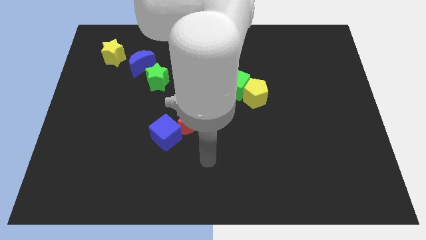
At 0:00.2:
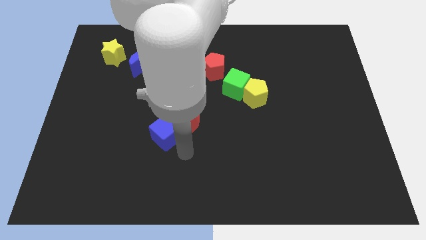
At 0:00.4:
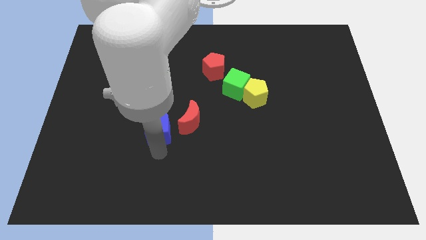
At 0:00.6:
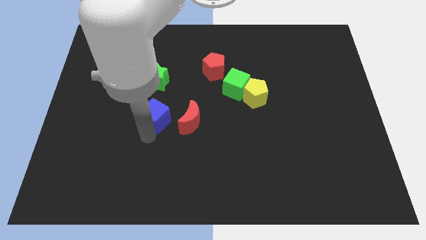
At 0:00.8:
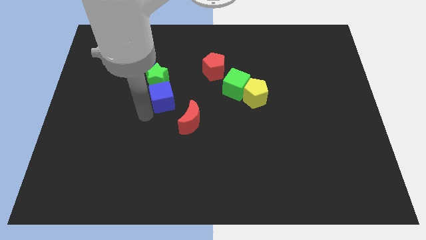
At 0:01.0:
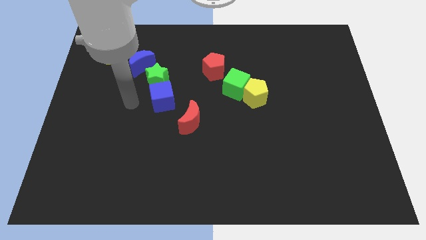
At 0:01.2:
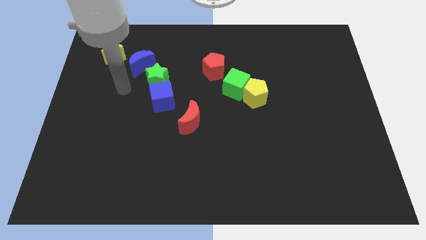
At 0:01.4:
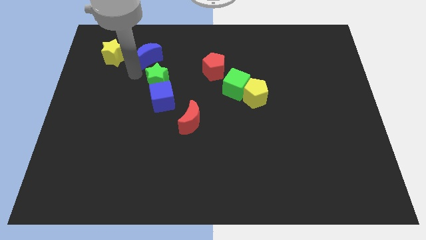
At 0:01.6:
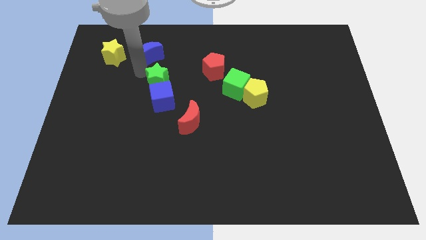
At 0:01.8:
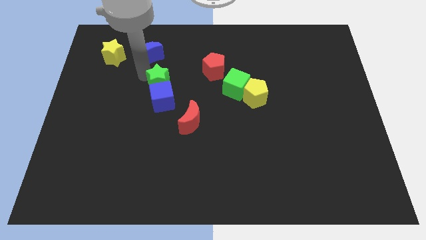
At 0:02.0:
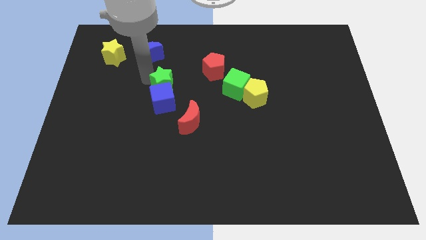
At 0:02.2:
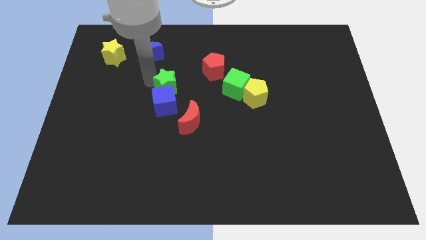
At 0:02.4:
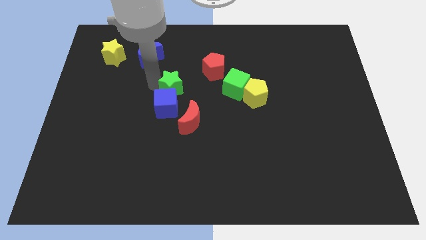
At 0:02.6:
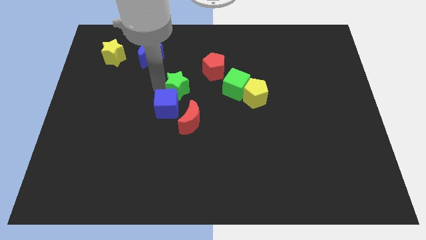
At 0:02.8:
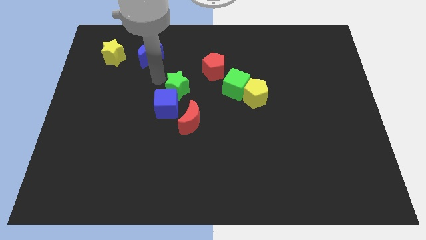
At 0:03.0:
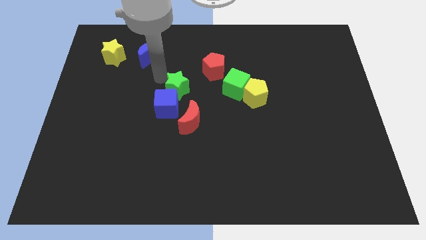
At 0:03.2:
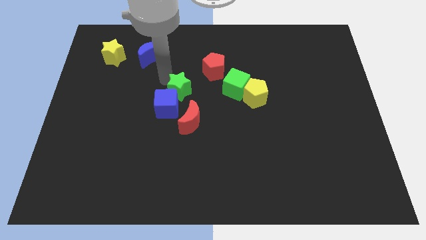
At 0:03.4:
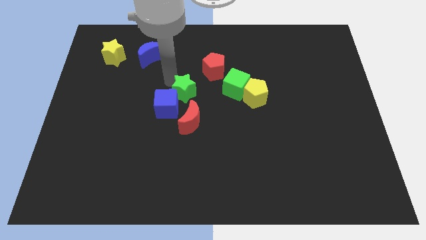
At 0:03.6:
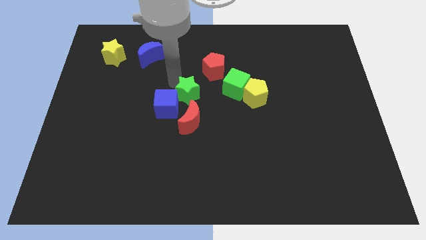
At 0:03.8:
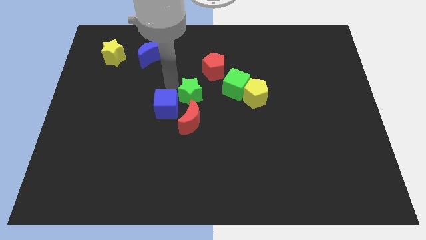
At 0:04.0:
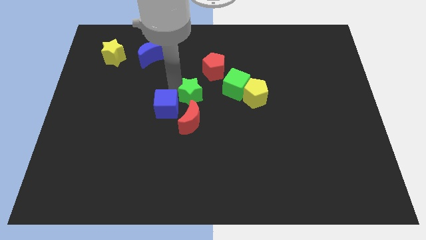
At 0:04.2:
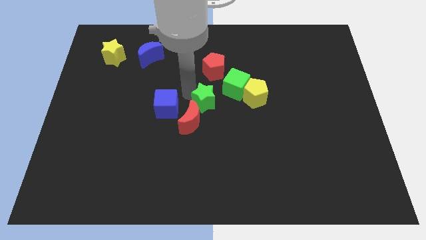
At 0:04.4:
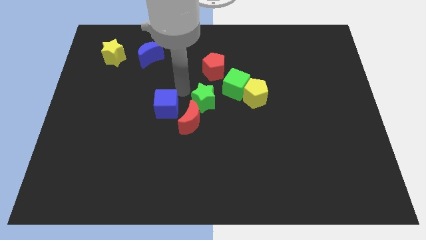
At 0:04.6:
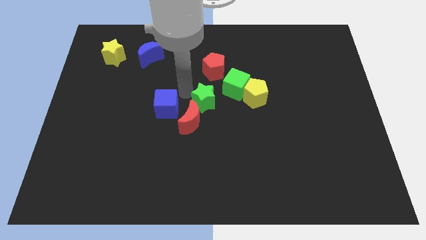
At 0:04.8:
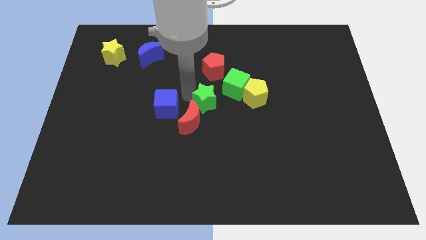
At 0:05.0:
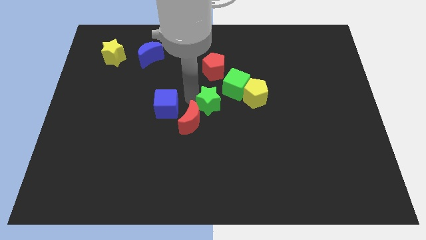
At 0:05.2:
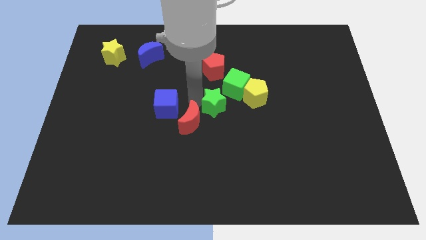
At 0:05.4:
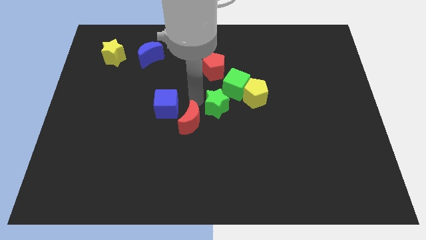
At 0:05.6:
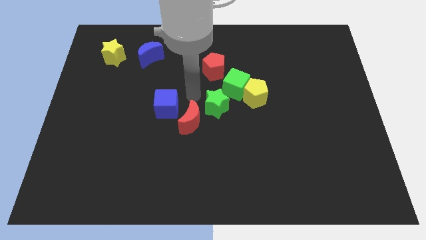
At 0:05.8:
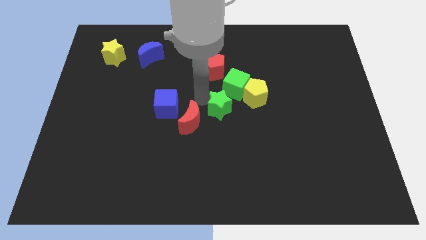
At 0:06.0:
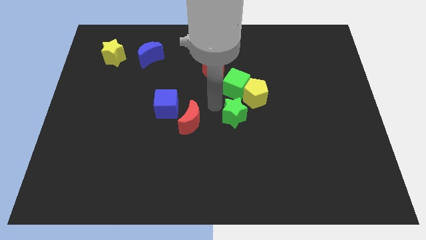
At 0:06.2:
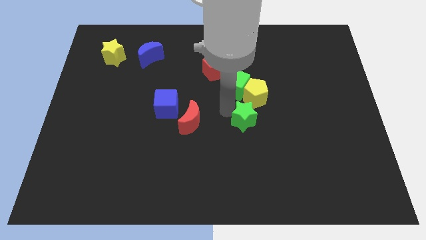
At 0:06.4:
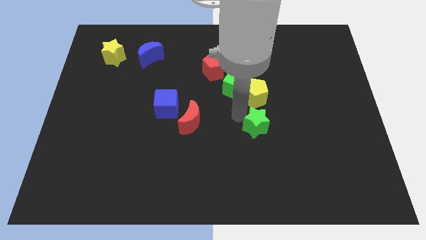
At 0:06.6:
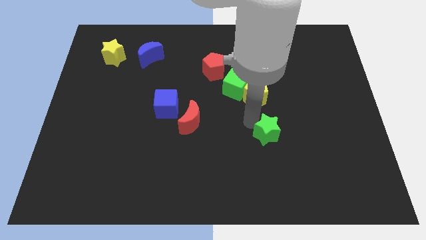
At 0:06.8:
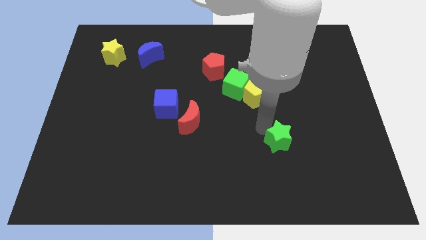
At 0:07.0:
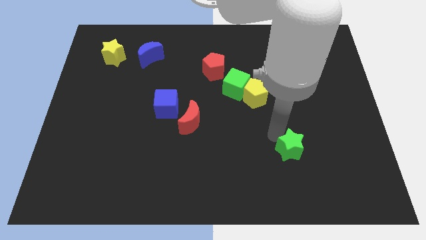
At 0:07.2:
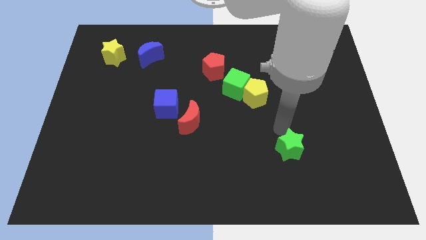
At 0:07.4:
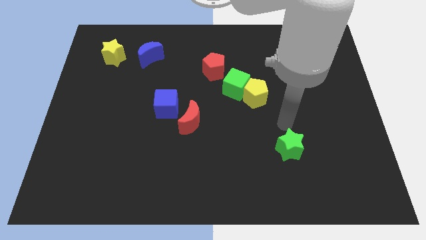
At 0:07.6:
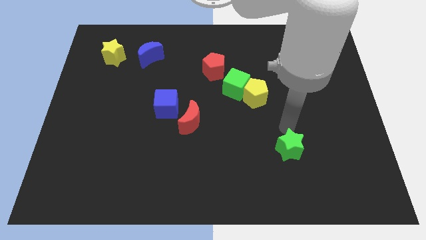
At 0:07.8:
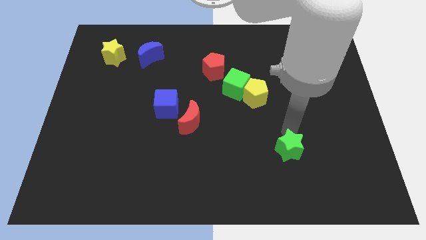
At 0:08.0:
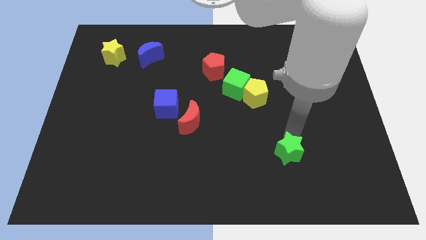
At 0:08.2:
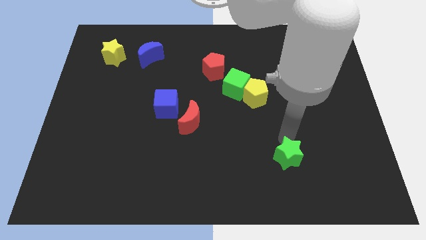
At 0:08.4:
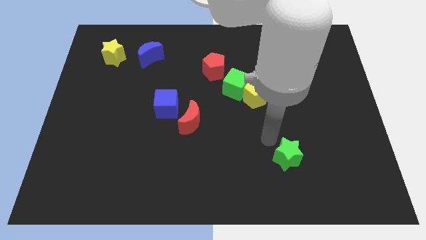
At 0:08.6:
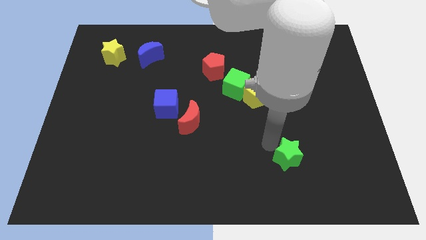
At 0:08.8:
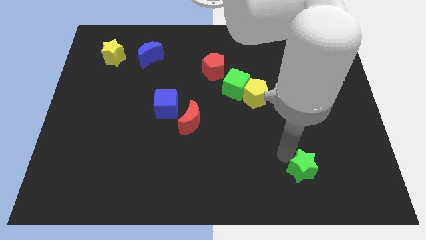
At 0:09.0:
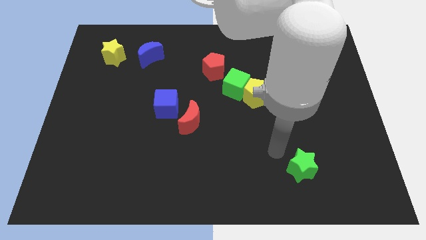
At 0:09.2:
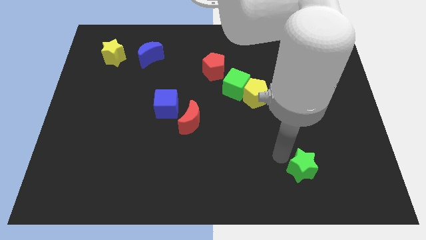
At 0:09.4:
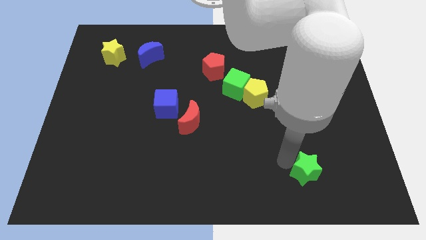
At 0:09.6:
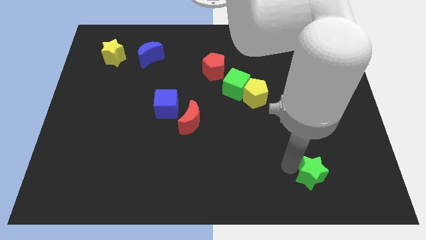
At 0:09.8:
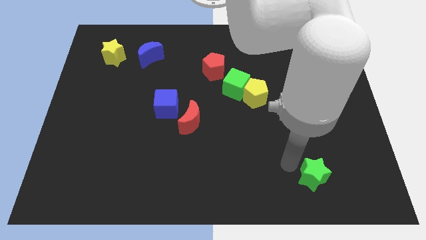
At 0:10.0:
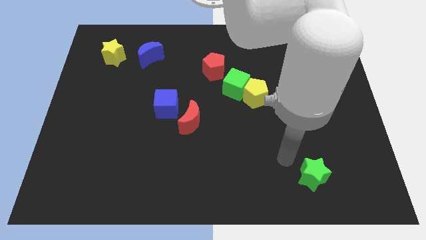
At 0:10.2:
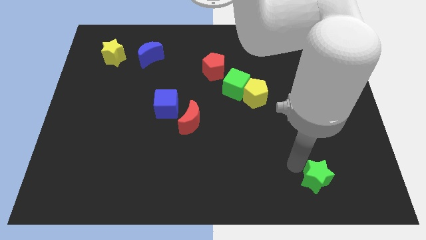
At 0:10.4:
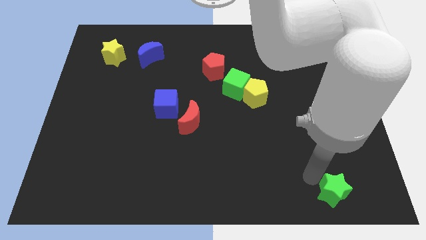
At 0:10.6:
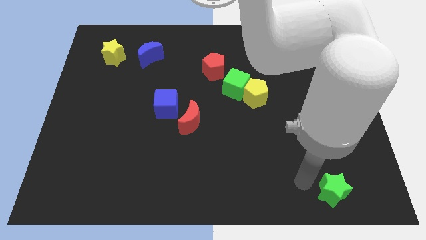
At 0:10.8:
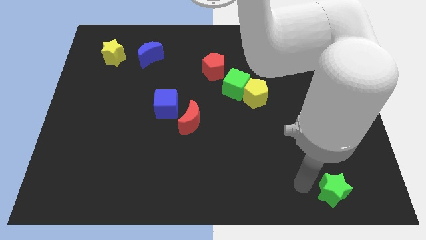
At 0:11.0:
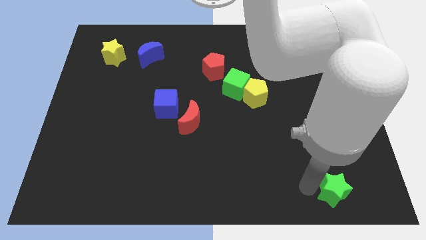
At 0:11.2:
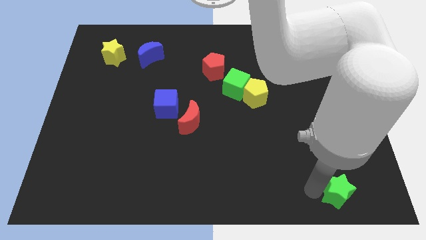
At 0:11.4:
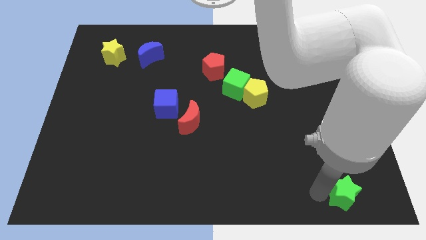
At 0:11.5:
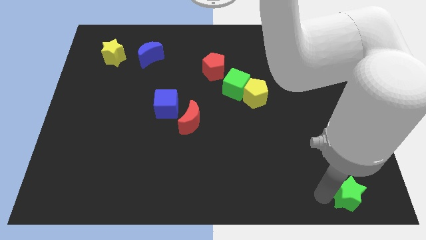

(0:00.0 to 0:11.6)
put the green star to the bottom right of the board

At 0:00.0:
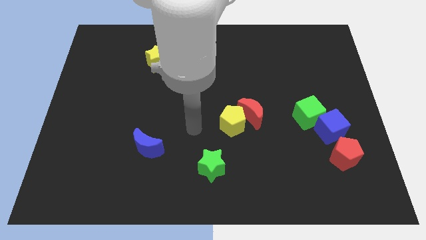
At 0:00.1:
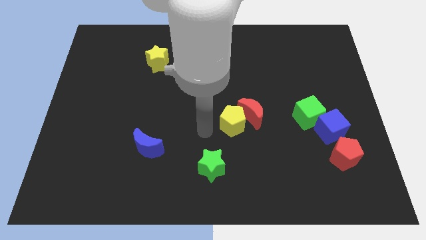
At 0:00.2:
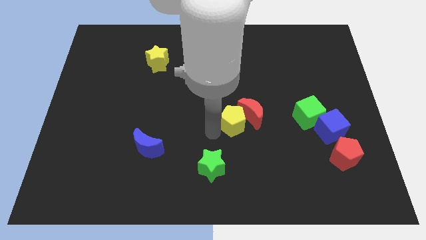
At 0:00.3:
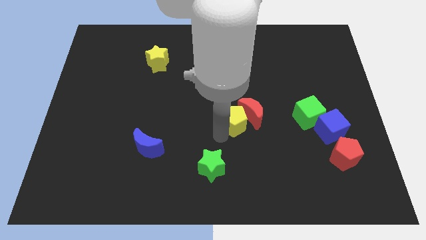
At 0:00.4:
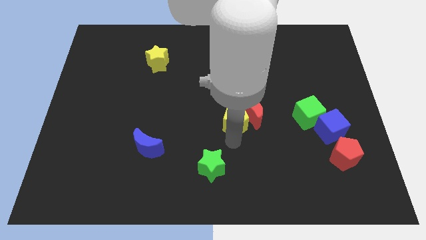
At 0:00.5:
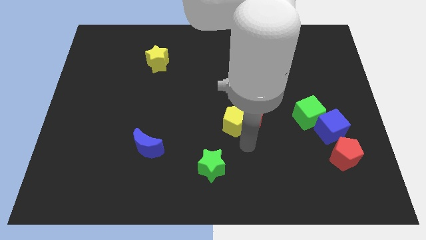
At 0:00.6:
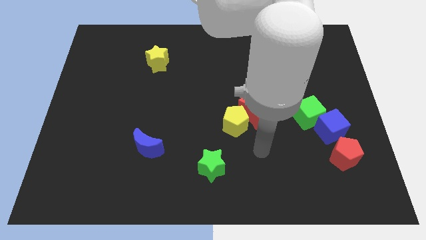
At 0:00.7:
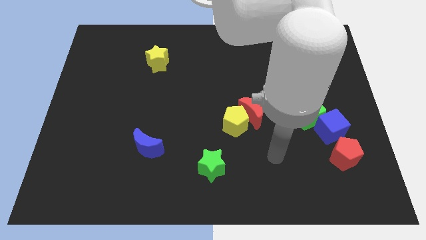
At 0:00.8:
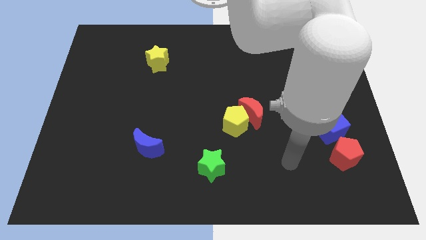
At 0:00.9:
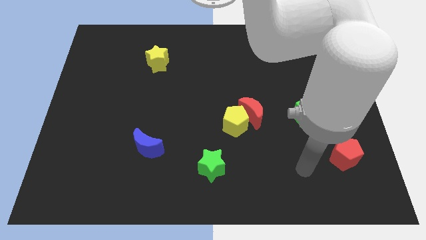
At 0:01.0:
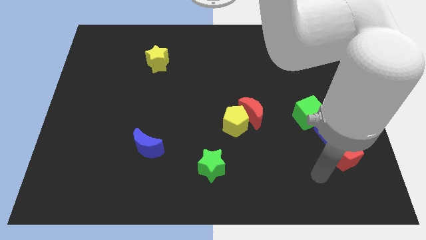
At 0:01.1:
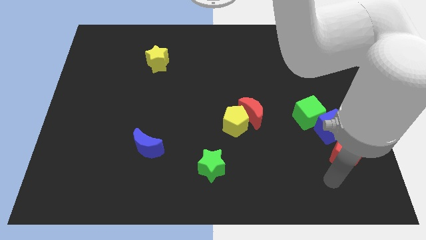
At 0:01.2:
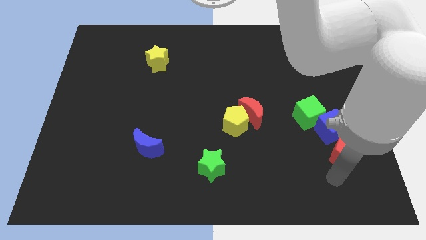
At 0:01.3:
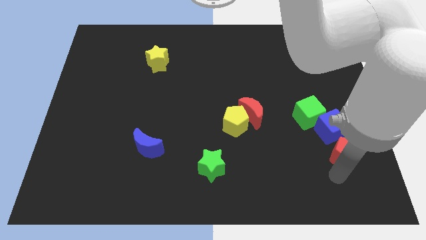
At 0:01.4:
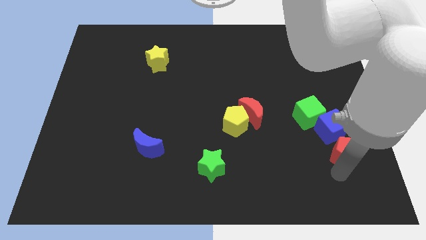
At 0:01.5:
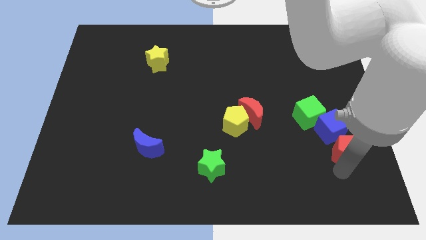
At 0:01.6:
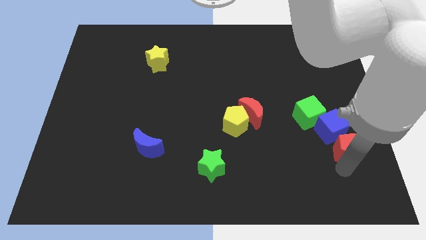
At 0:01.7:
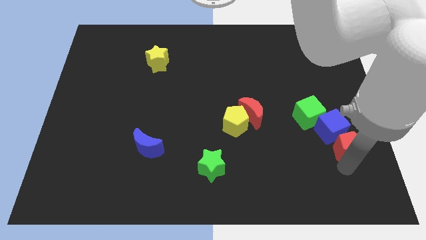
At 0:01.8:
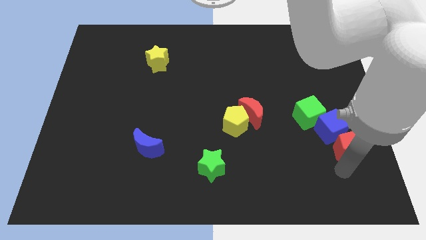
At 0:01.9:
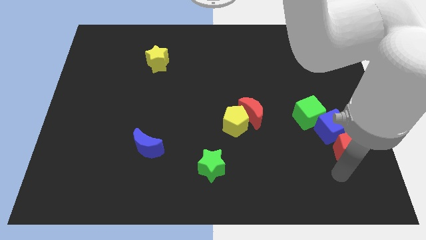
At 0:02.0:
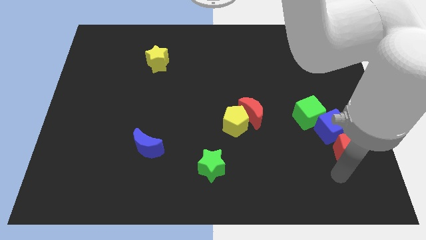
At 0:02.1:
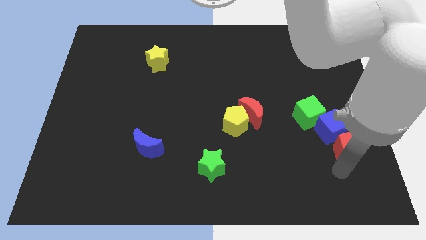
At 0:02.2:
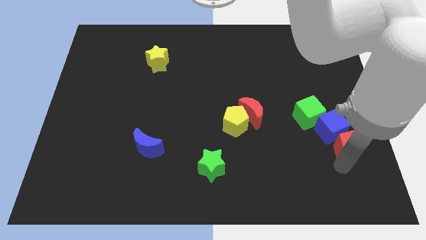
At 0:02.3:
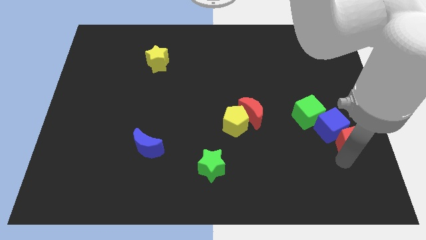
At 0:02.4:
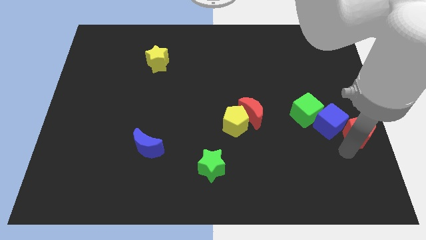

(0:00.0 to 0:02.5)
put the red pentagon to the right side
